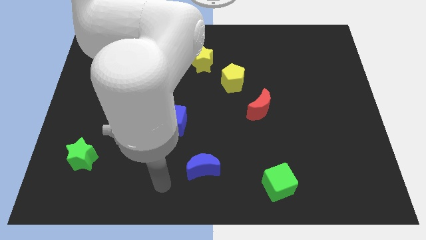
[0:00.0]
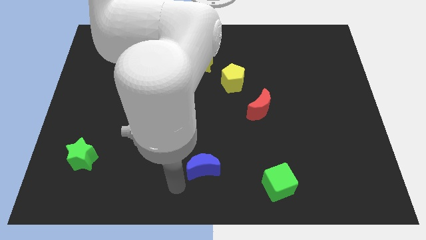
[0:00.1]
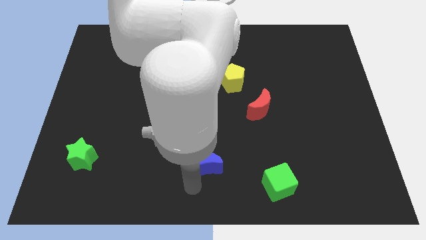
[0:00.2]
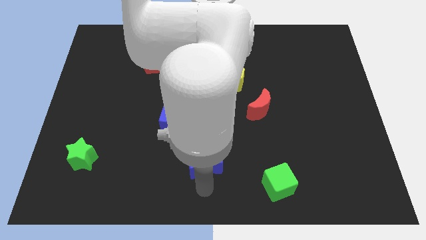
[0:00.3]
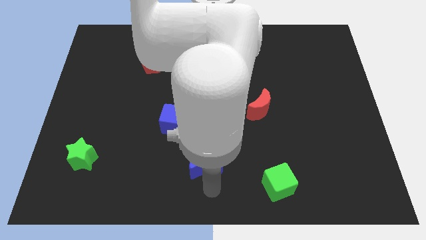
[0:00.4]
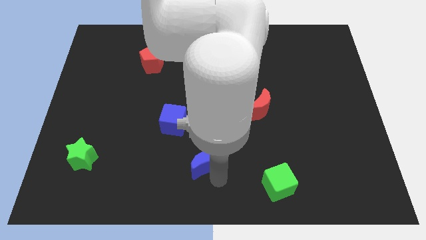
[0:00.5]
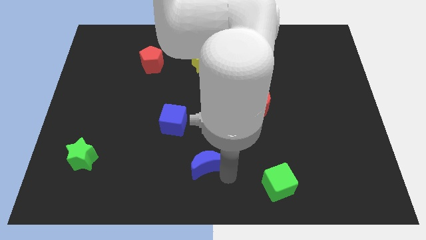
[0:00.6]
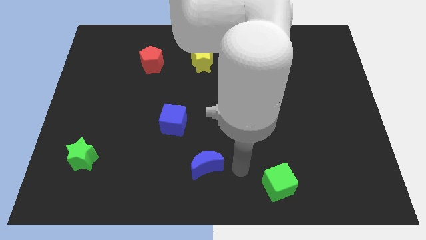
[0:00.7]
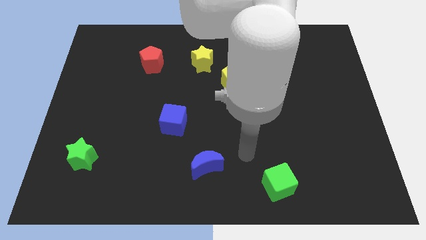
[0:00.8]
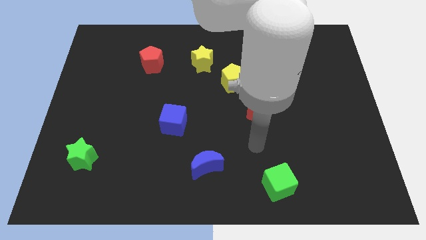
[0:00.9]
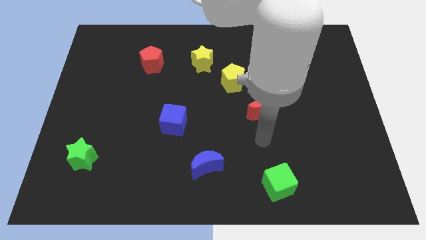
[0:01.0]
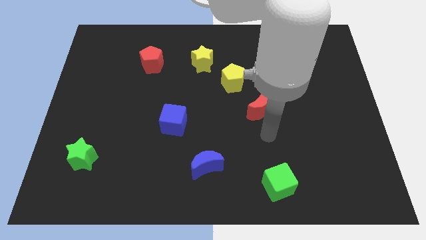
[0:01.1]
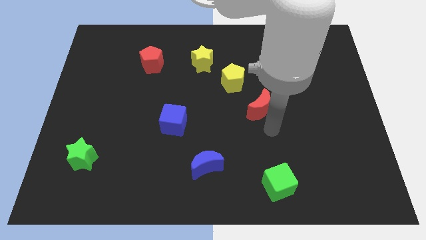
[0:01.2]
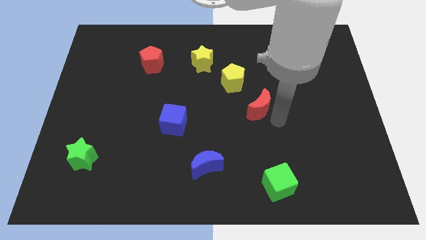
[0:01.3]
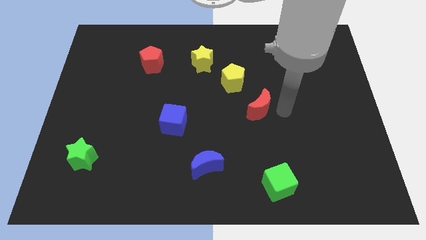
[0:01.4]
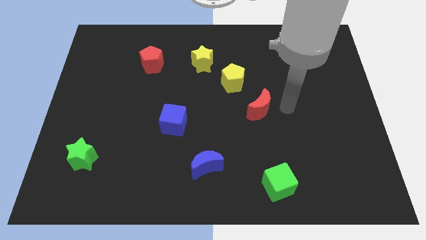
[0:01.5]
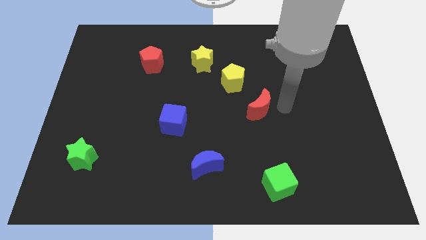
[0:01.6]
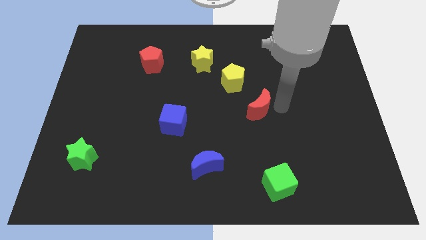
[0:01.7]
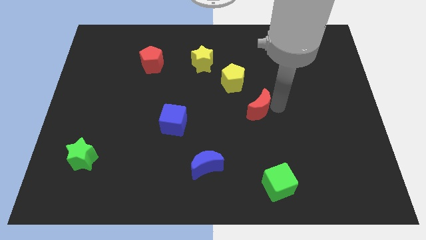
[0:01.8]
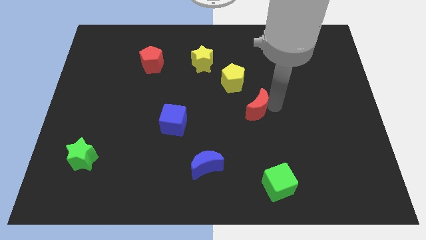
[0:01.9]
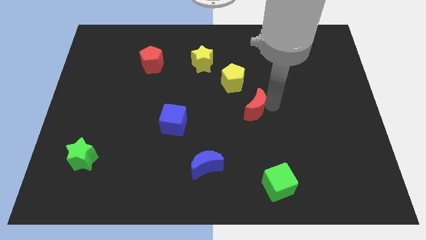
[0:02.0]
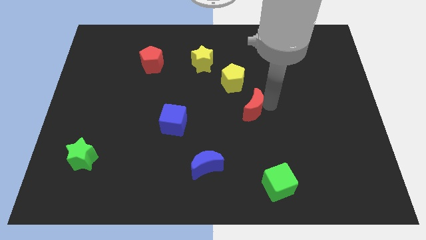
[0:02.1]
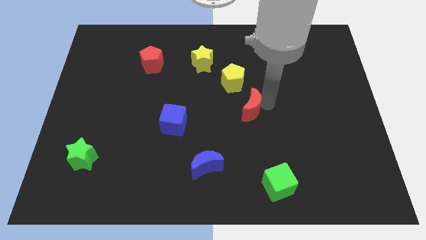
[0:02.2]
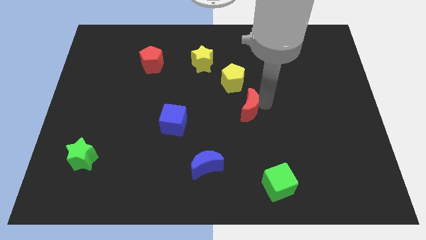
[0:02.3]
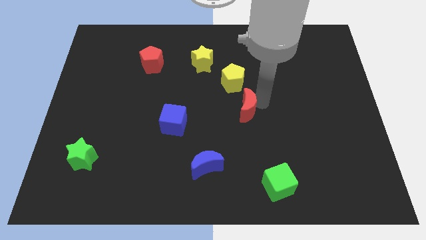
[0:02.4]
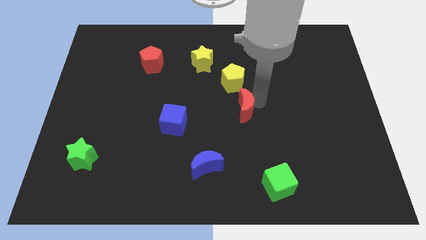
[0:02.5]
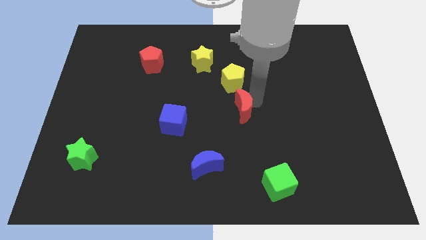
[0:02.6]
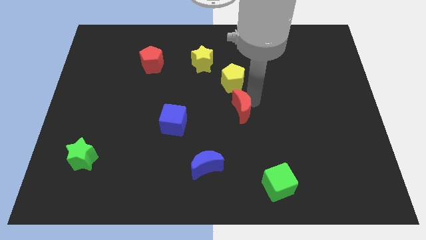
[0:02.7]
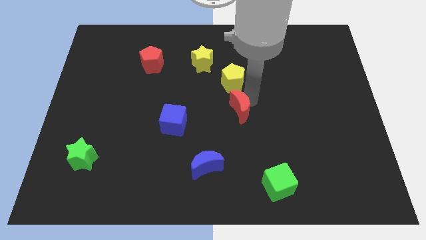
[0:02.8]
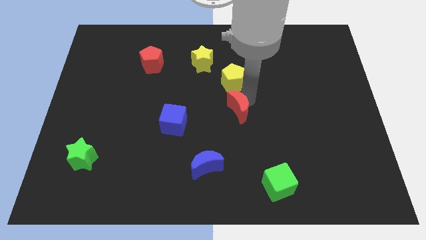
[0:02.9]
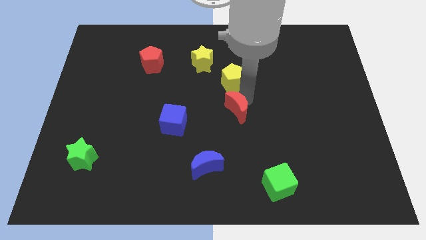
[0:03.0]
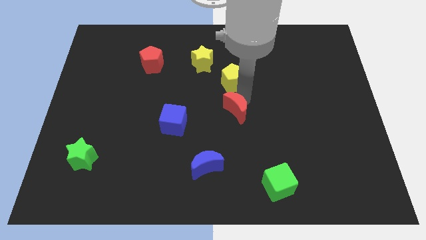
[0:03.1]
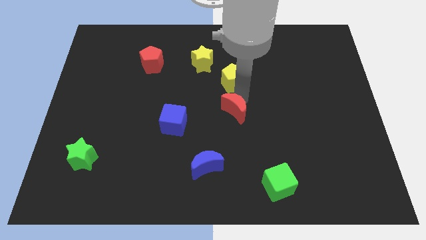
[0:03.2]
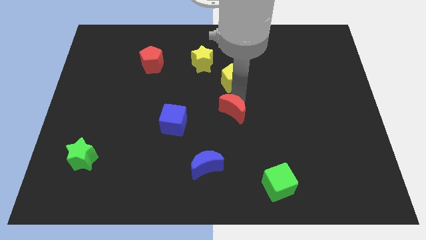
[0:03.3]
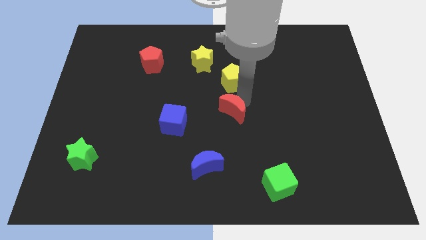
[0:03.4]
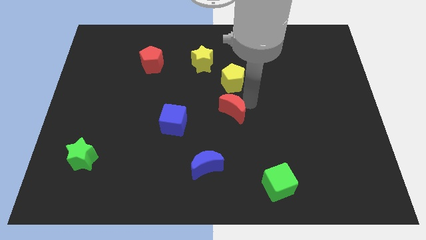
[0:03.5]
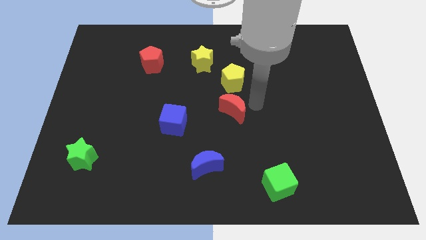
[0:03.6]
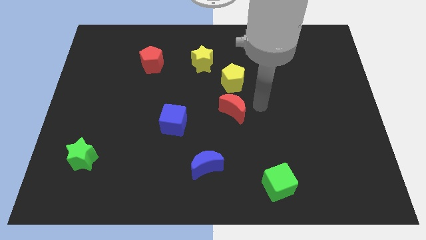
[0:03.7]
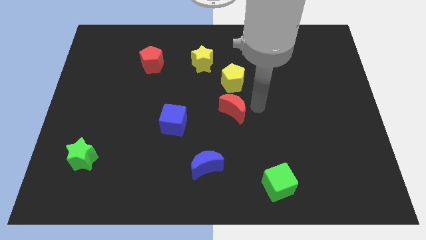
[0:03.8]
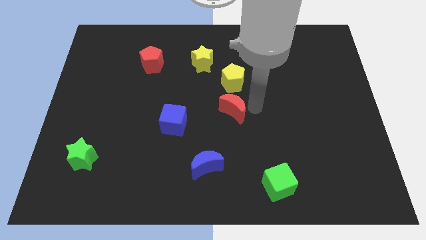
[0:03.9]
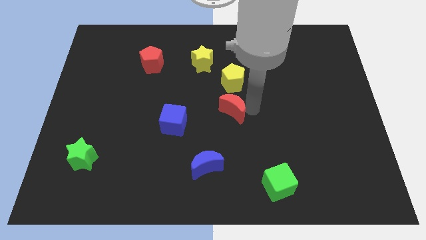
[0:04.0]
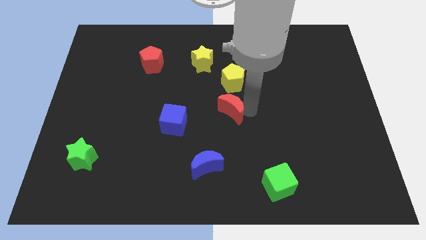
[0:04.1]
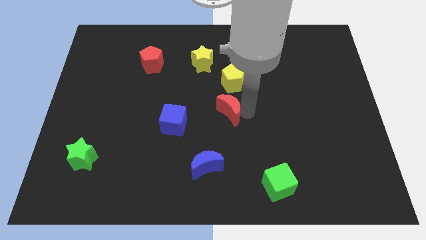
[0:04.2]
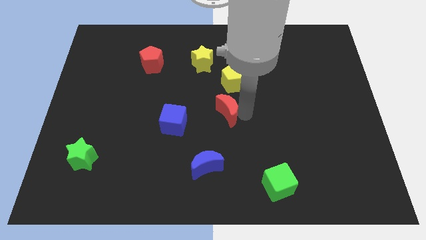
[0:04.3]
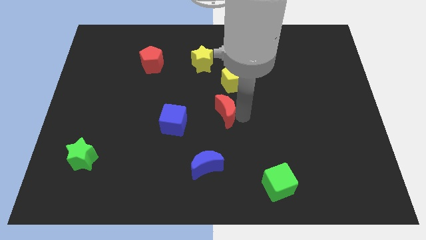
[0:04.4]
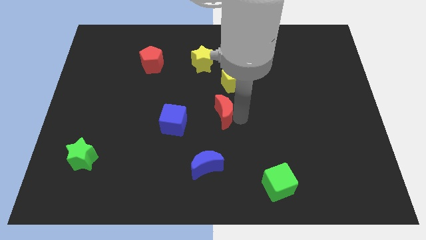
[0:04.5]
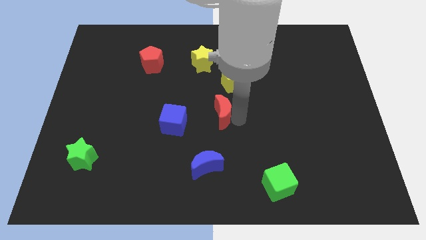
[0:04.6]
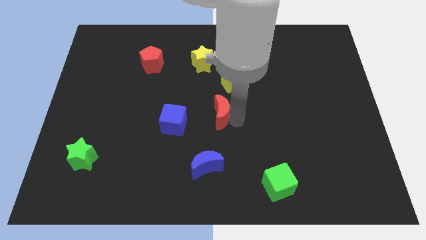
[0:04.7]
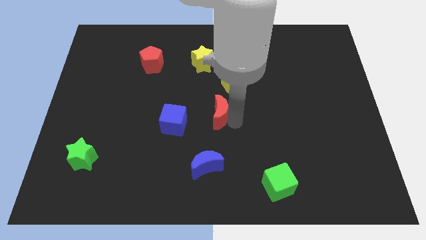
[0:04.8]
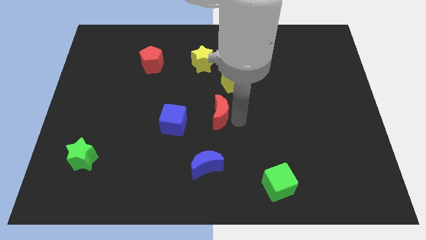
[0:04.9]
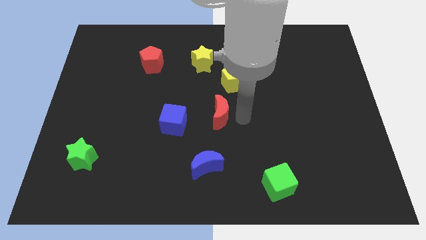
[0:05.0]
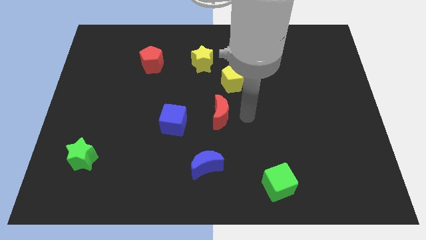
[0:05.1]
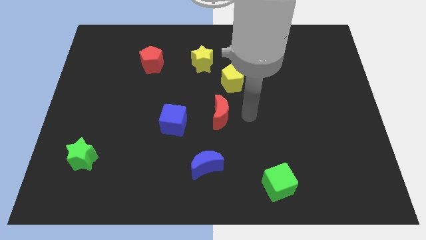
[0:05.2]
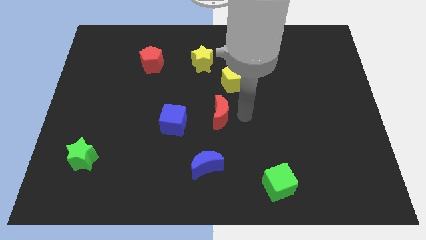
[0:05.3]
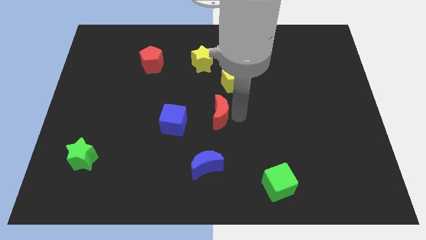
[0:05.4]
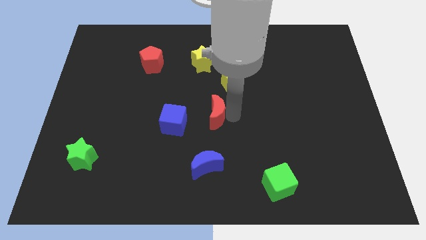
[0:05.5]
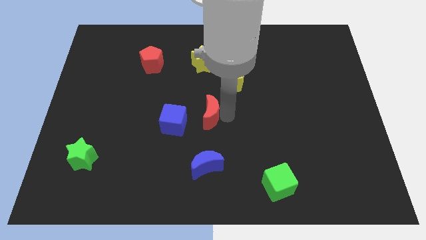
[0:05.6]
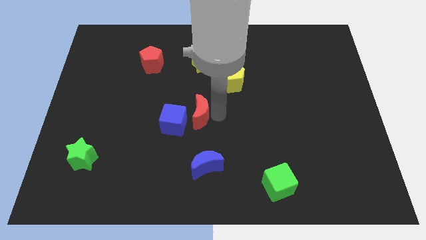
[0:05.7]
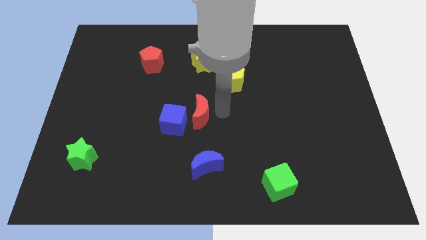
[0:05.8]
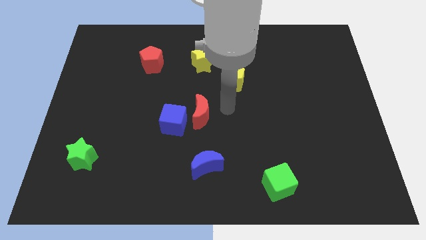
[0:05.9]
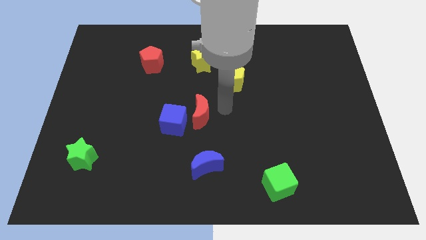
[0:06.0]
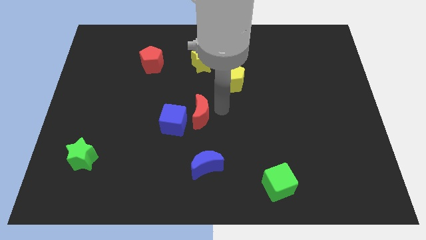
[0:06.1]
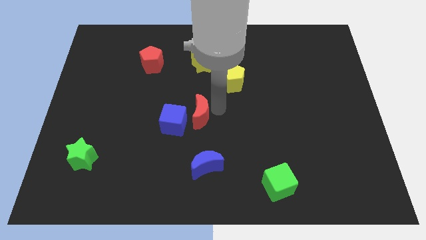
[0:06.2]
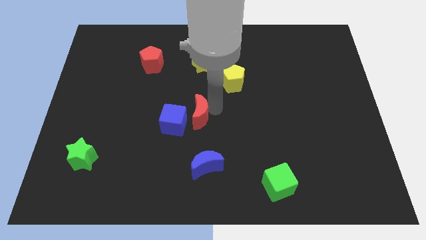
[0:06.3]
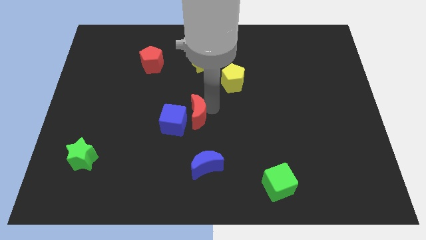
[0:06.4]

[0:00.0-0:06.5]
move the red moon close to the blue cube

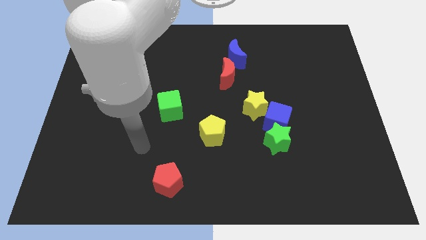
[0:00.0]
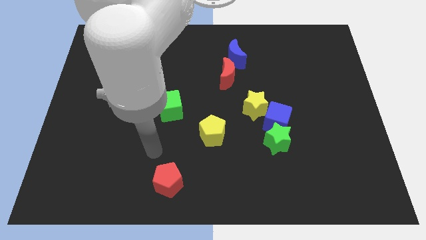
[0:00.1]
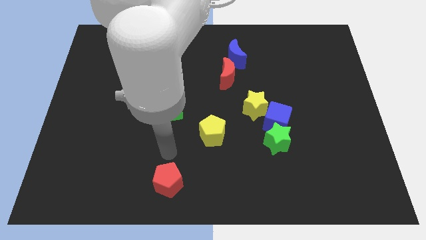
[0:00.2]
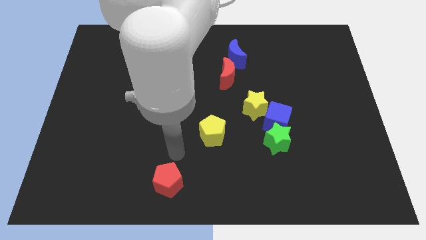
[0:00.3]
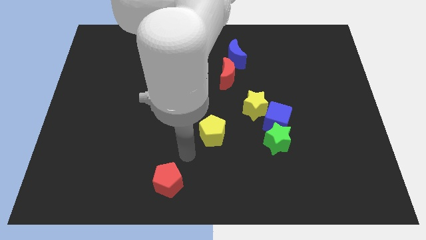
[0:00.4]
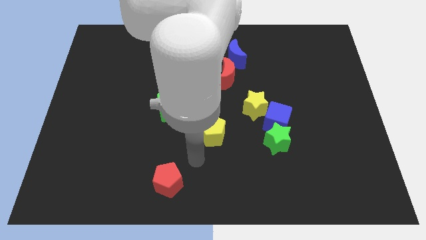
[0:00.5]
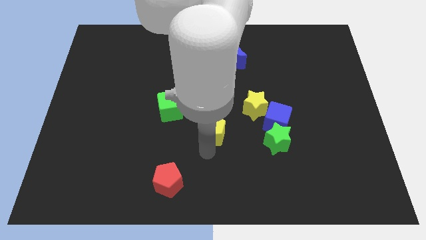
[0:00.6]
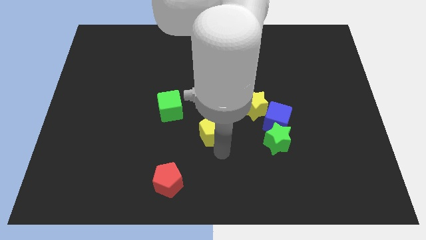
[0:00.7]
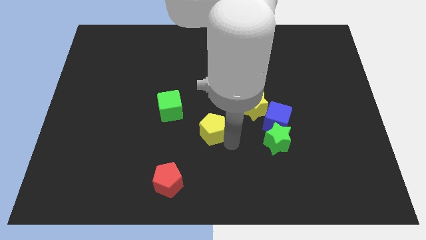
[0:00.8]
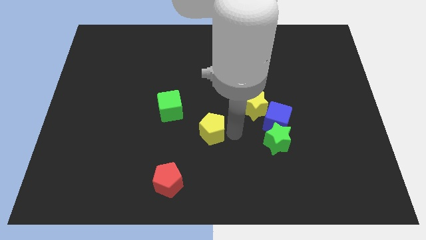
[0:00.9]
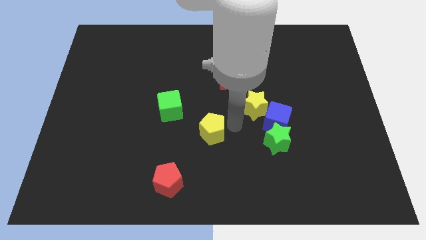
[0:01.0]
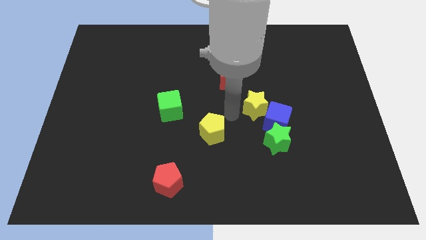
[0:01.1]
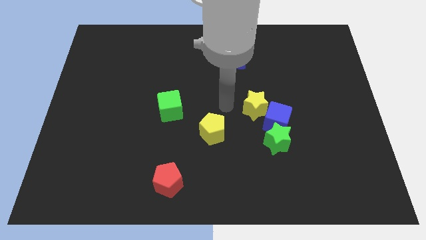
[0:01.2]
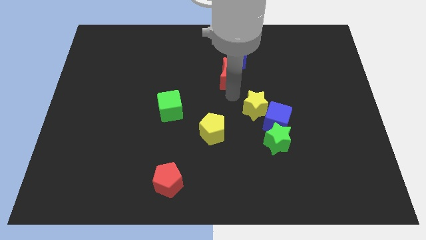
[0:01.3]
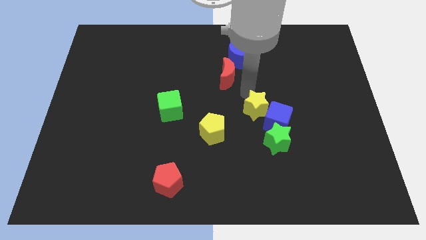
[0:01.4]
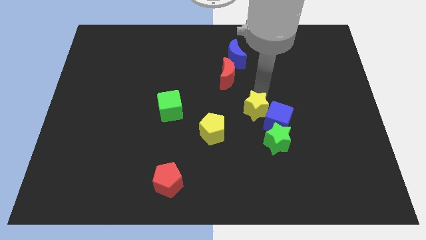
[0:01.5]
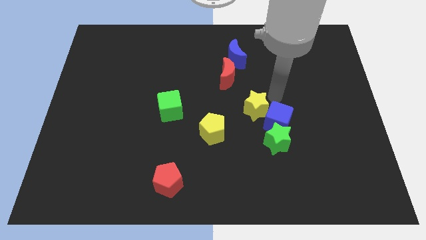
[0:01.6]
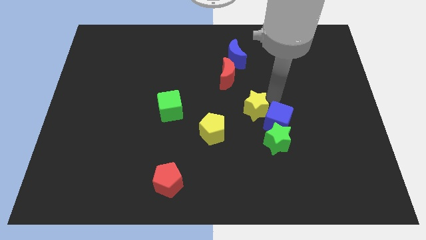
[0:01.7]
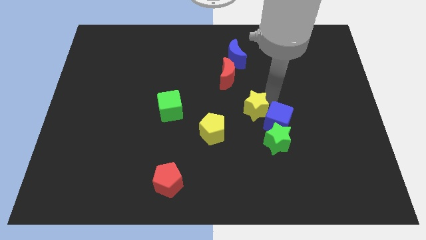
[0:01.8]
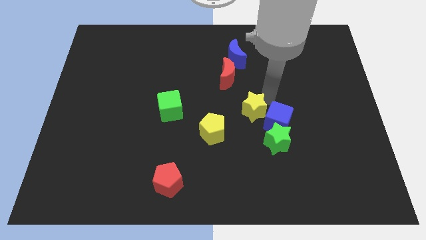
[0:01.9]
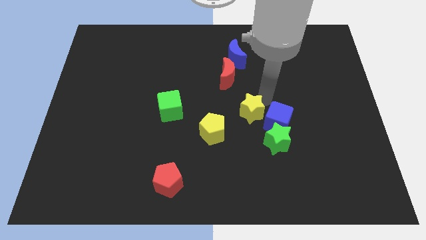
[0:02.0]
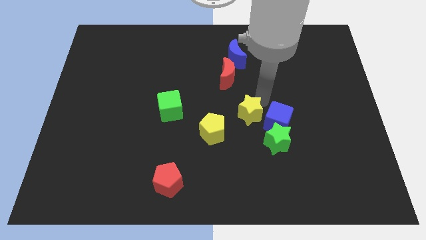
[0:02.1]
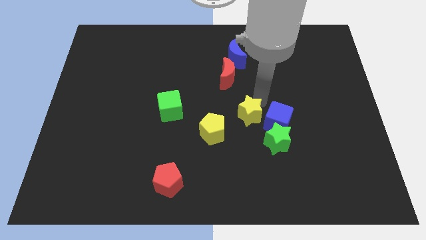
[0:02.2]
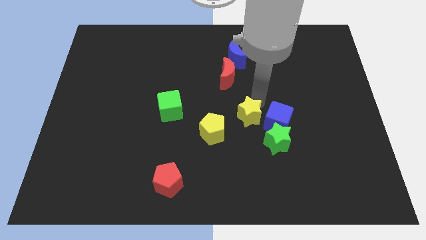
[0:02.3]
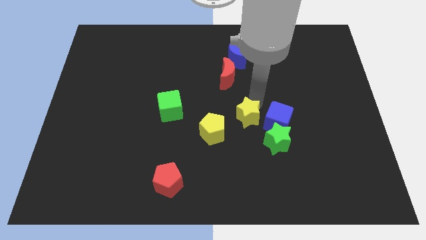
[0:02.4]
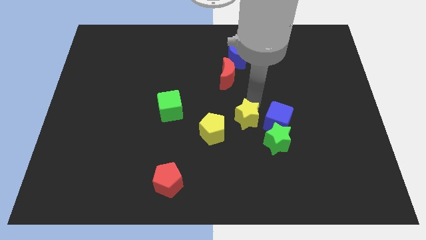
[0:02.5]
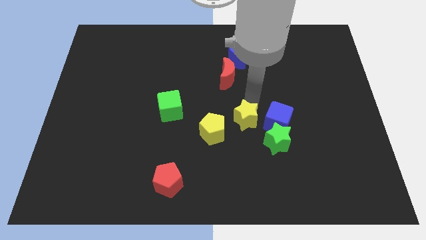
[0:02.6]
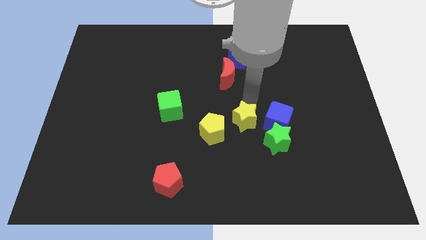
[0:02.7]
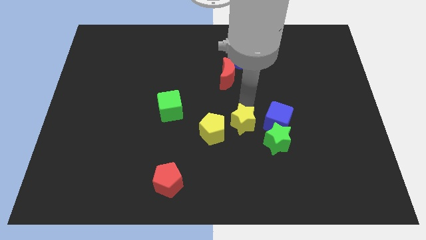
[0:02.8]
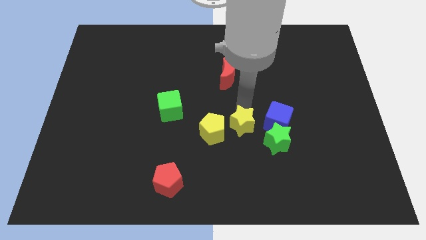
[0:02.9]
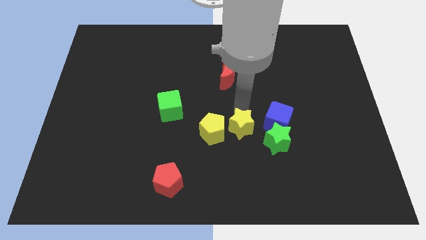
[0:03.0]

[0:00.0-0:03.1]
put the yellow star to the yellow pentagon
